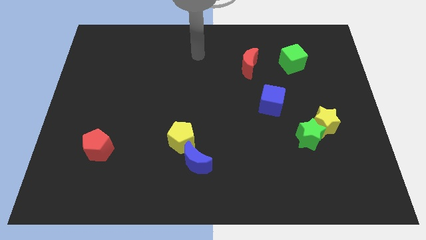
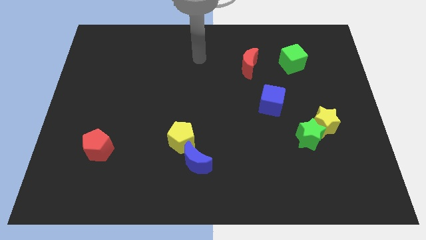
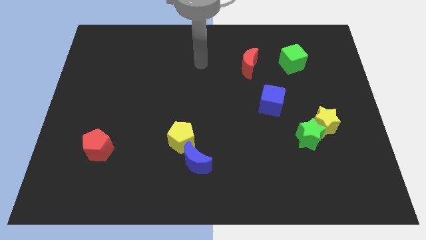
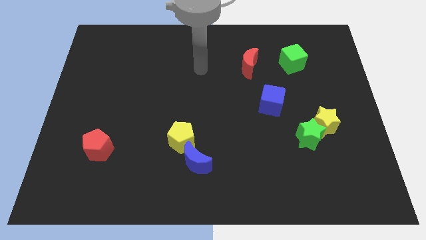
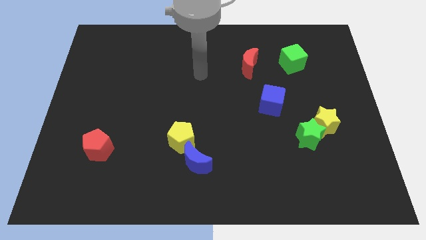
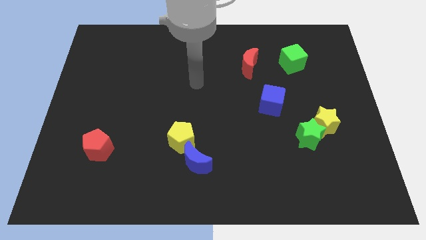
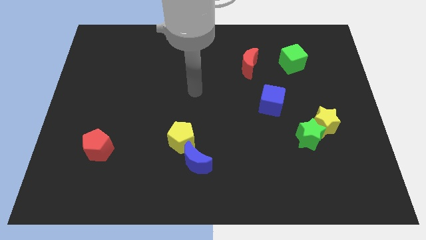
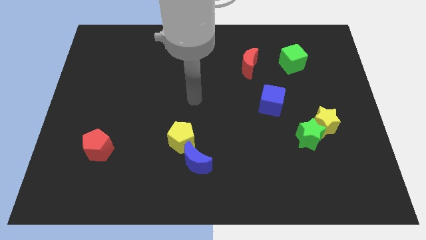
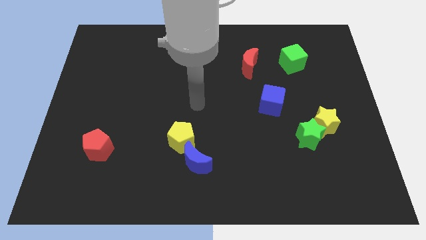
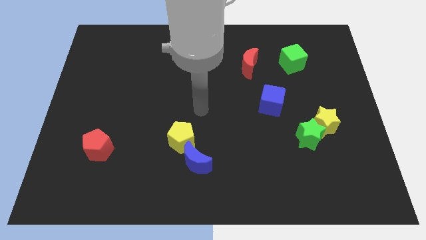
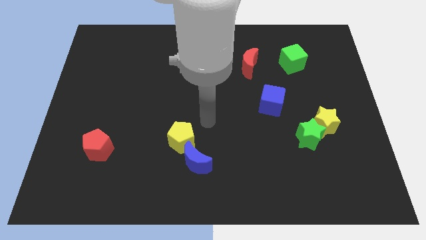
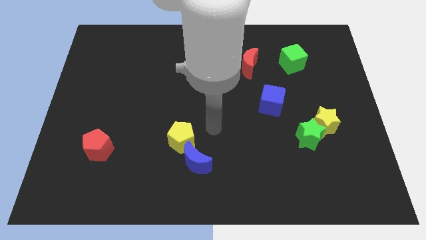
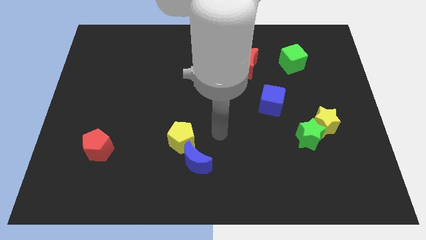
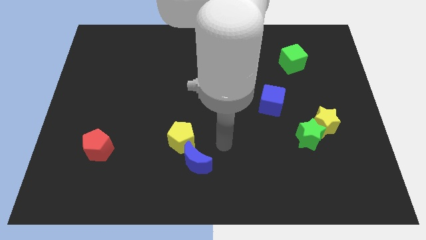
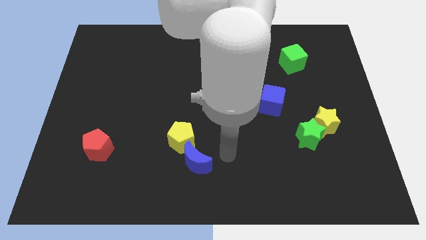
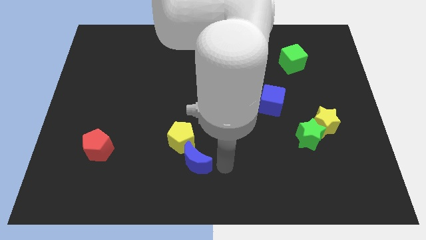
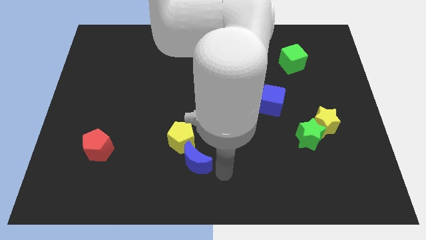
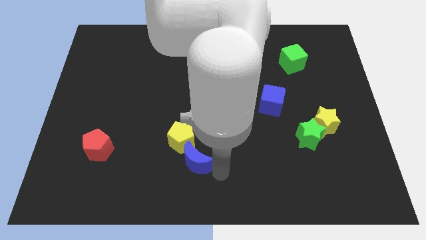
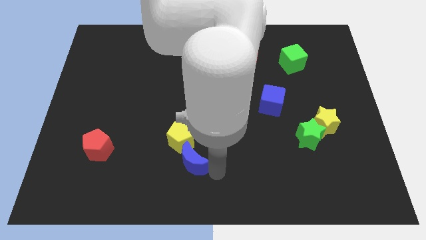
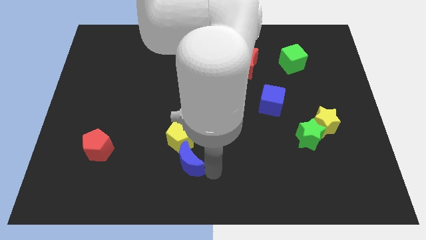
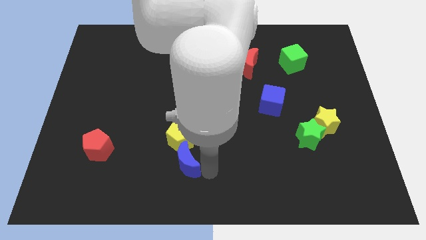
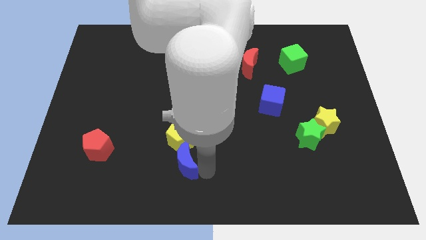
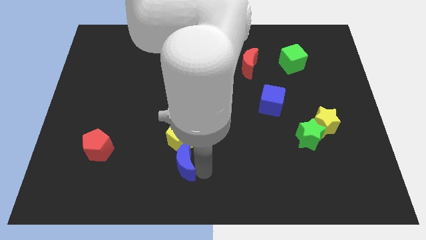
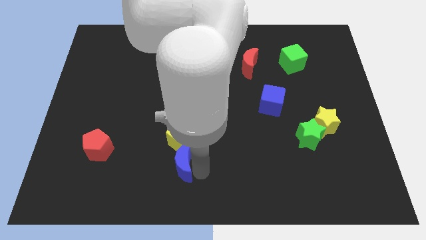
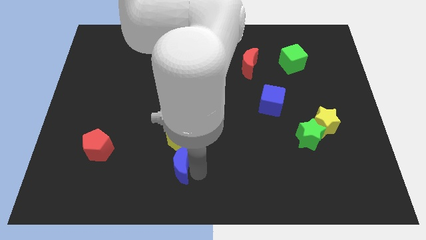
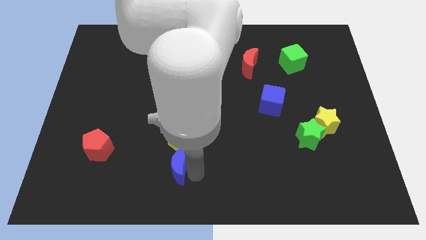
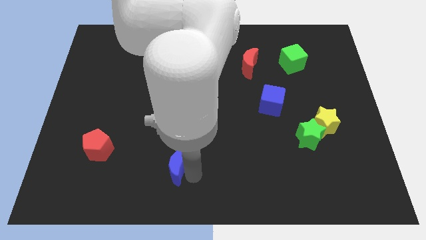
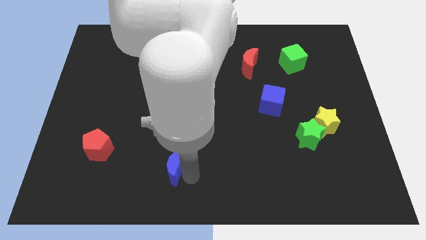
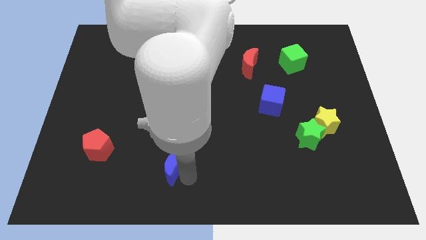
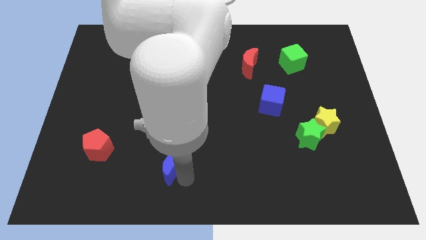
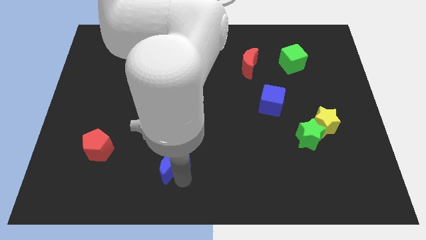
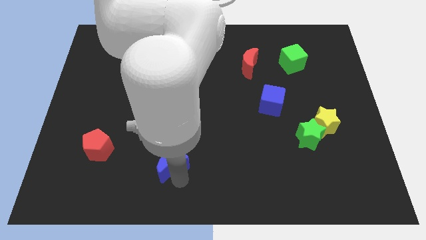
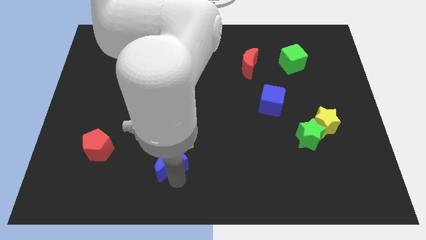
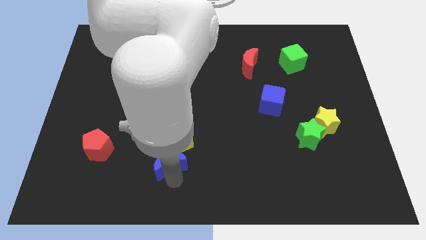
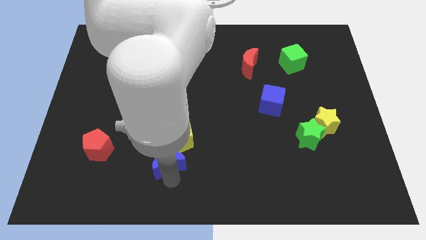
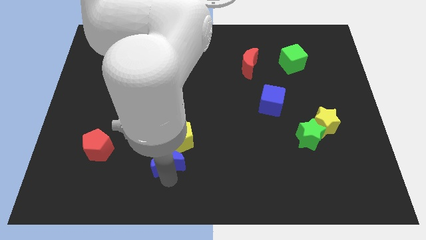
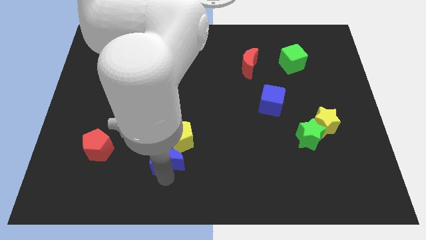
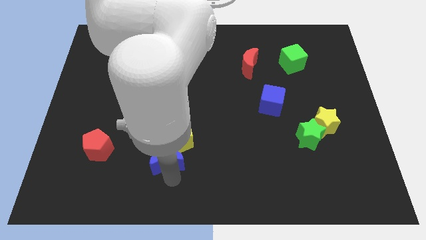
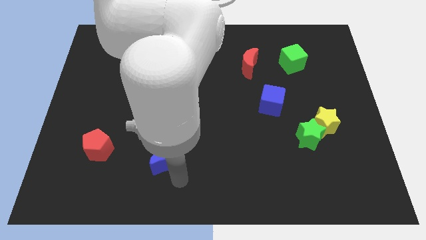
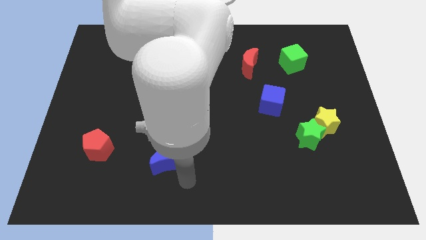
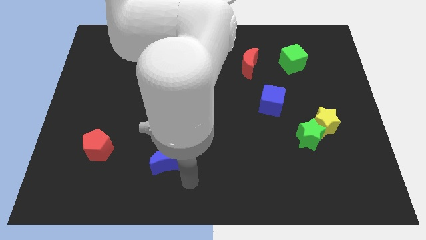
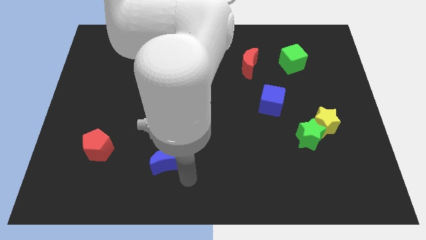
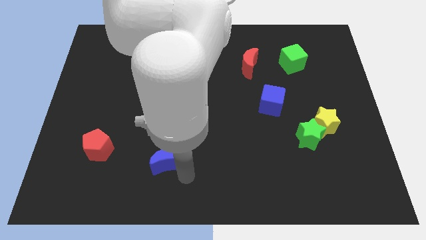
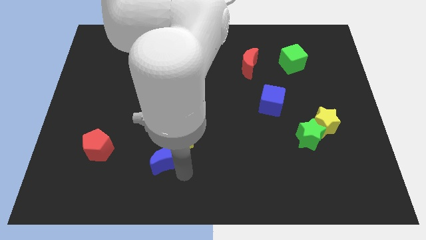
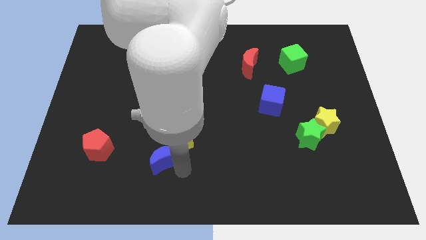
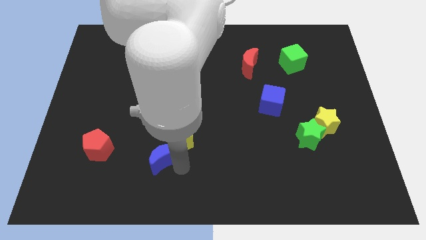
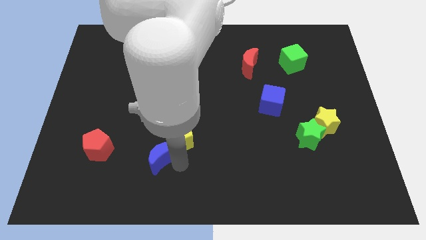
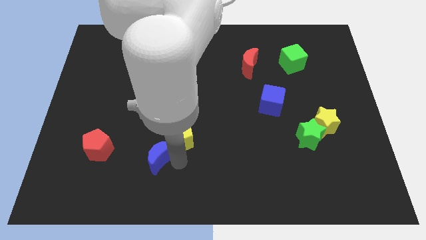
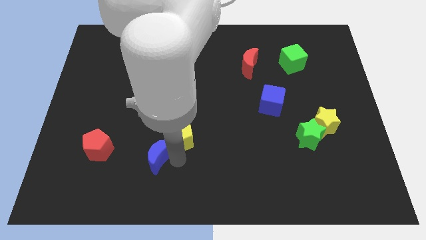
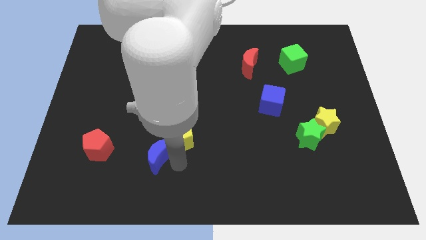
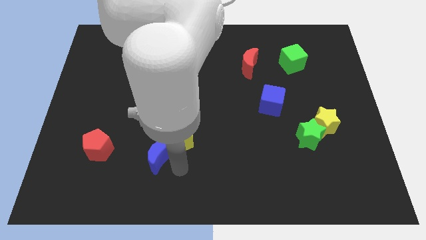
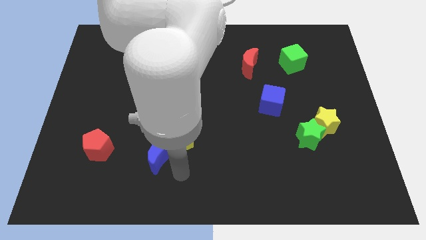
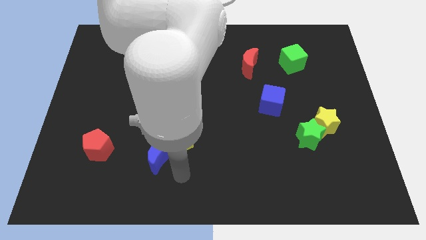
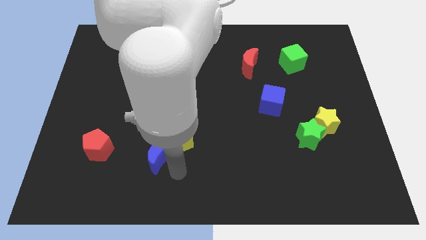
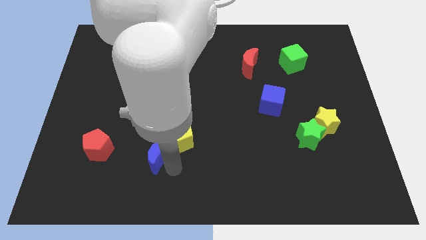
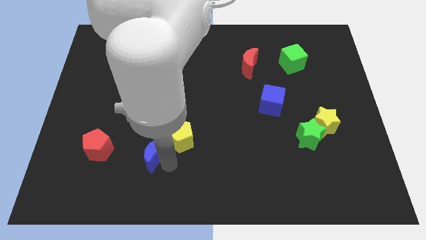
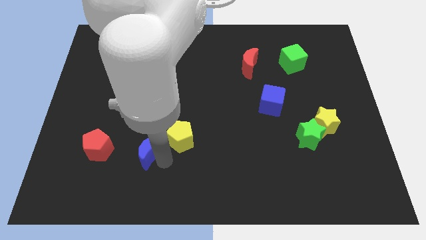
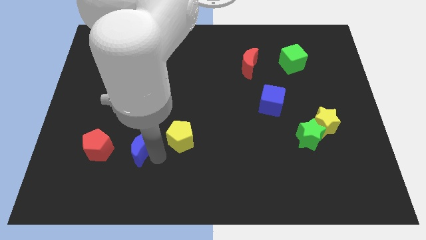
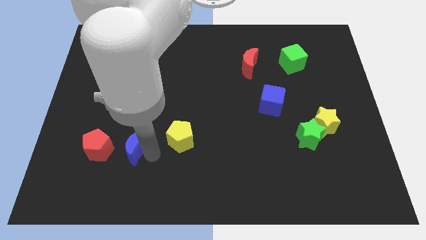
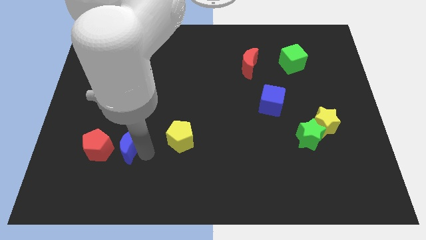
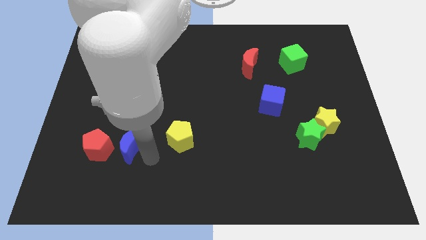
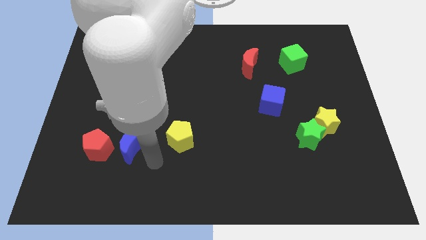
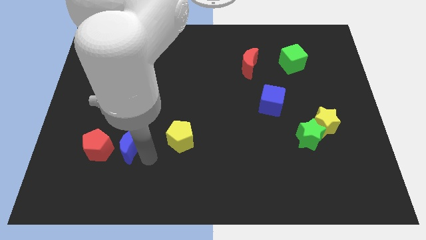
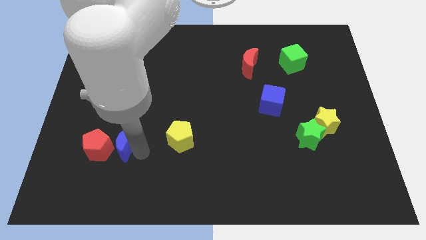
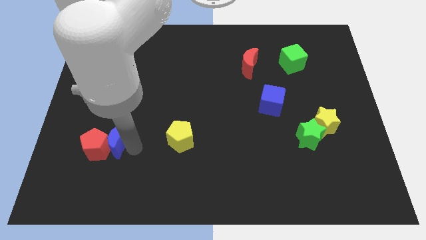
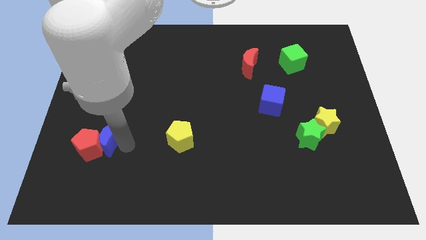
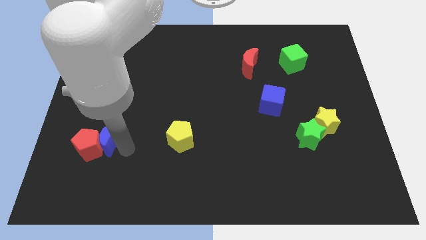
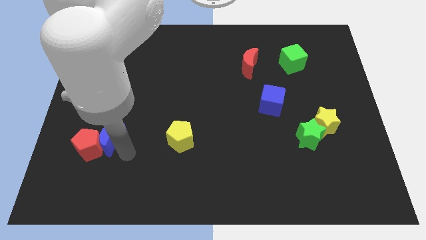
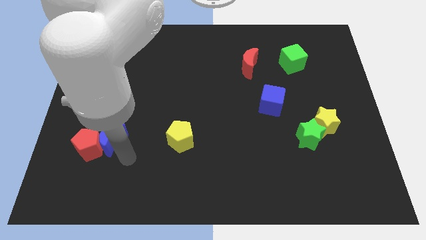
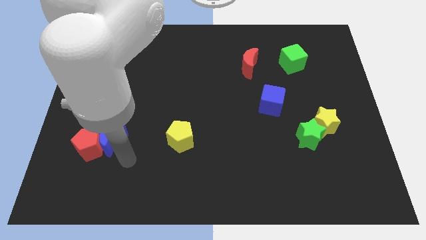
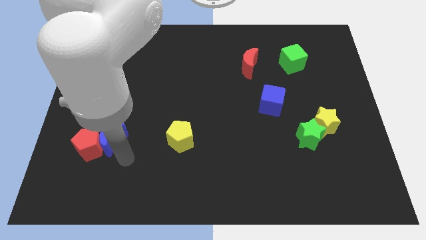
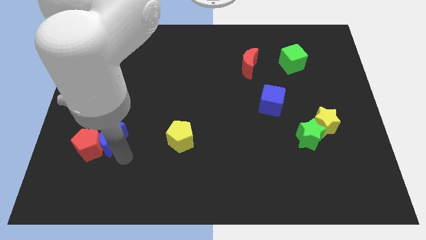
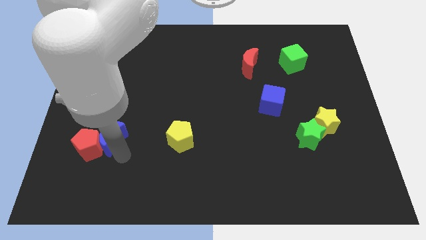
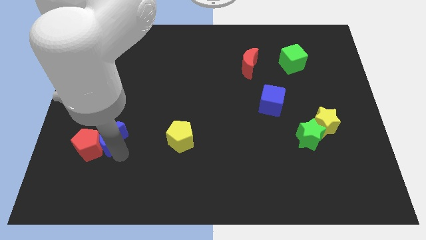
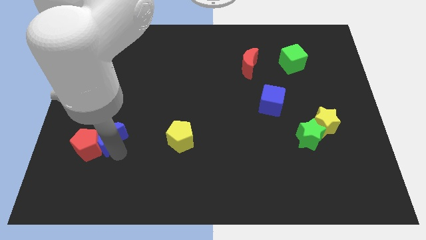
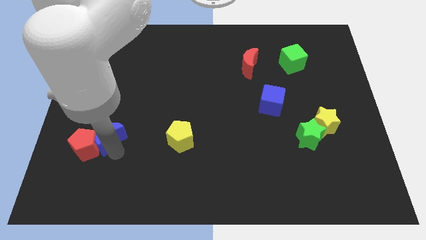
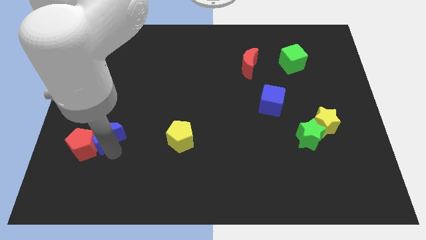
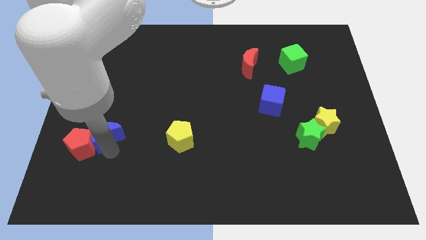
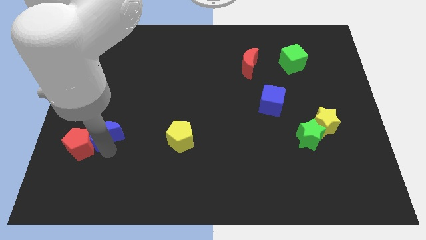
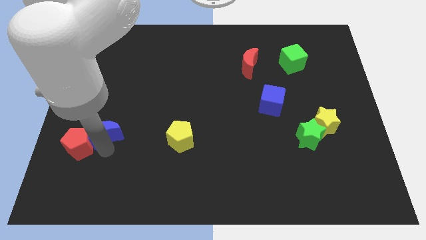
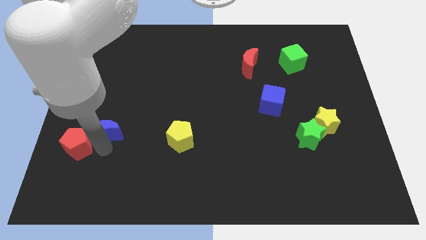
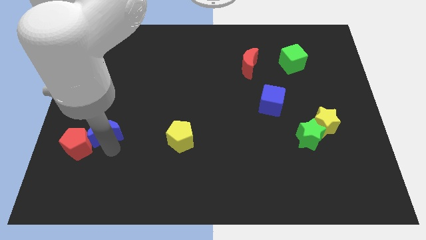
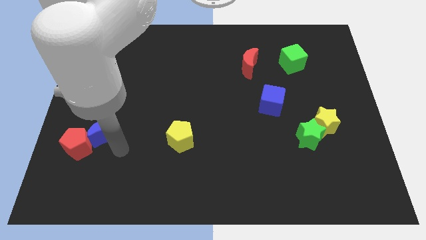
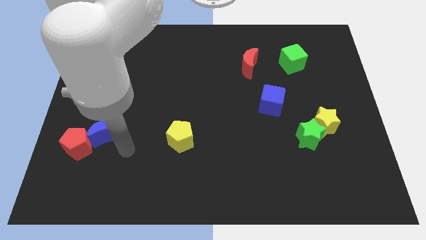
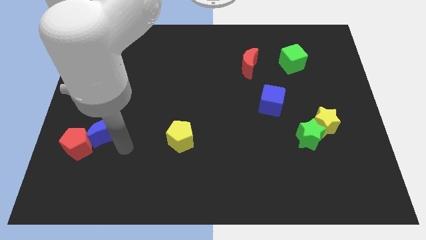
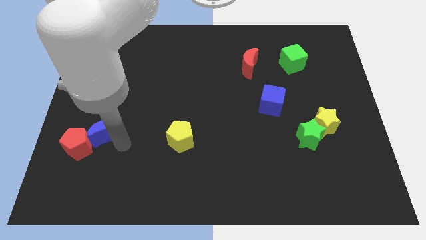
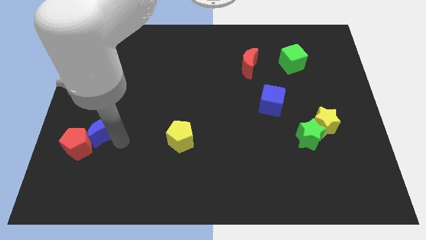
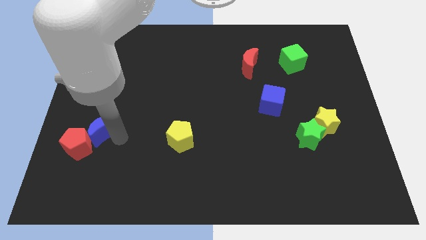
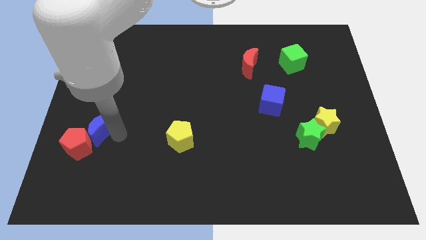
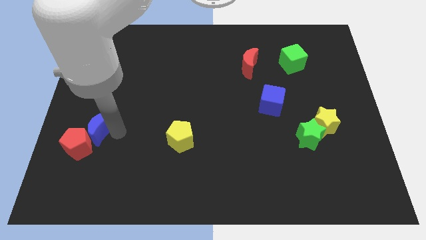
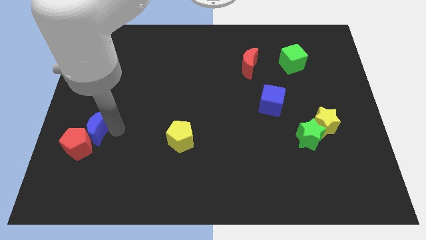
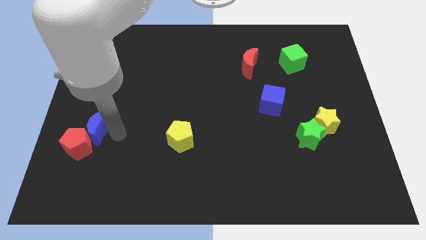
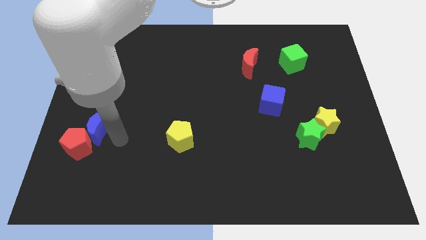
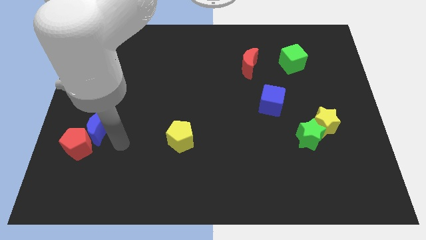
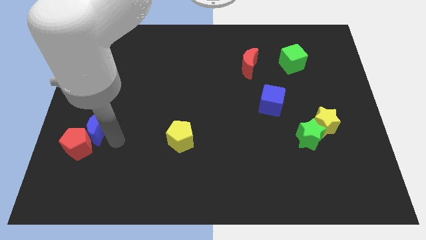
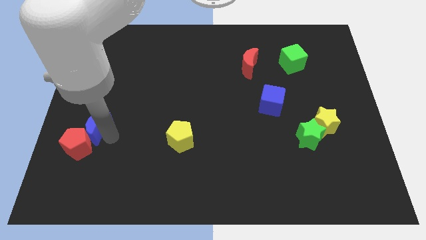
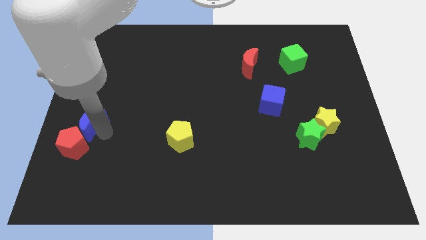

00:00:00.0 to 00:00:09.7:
slide the blue moon to the center left
